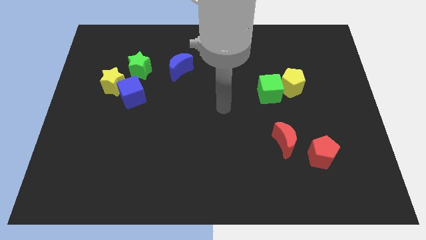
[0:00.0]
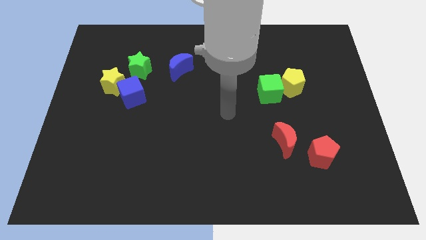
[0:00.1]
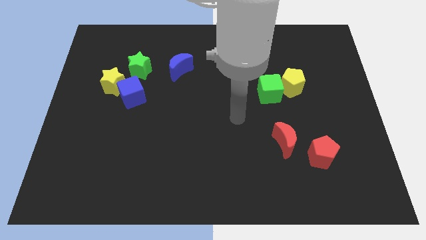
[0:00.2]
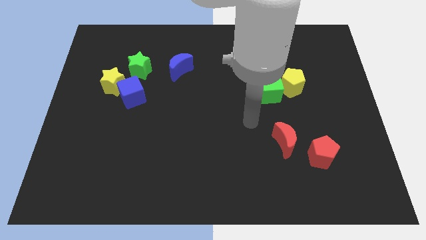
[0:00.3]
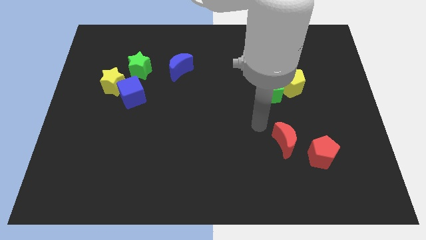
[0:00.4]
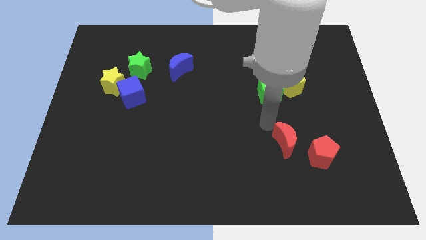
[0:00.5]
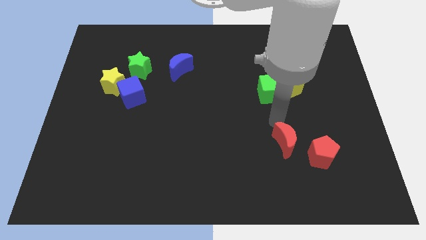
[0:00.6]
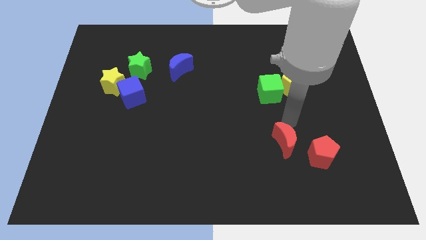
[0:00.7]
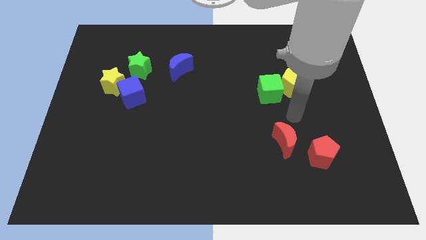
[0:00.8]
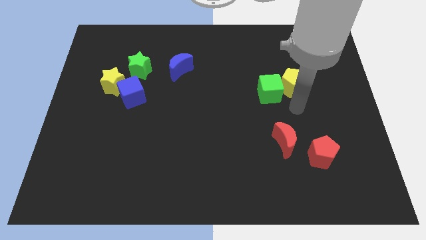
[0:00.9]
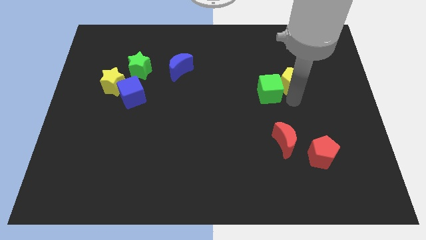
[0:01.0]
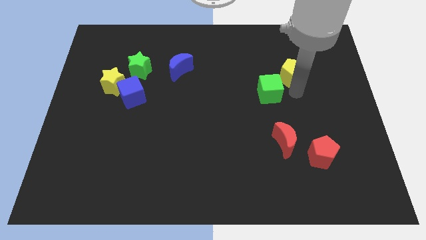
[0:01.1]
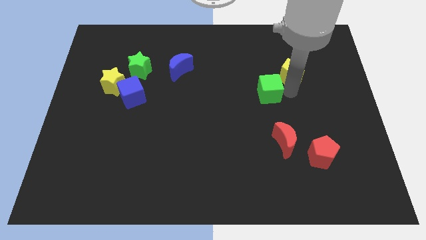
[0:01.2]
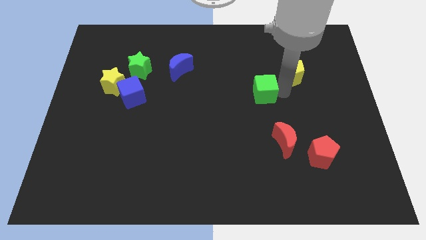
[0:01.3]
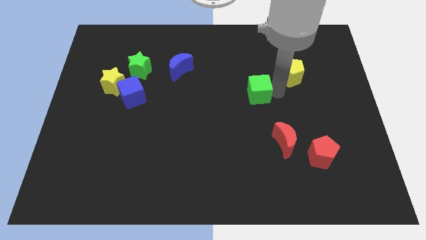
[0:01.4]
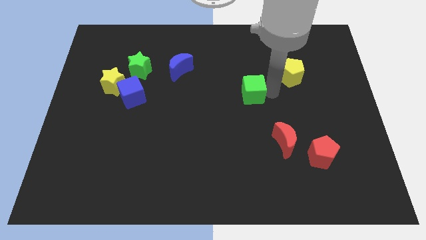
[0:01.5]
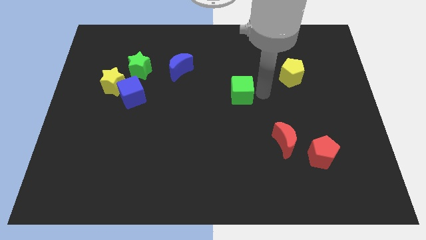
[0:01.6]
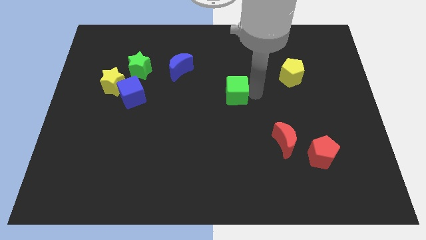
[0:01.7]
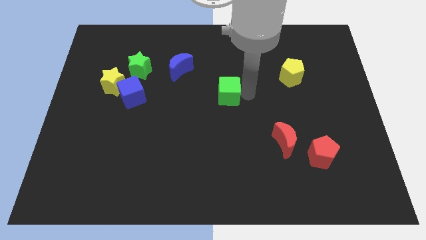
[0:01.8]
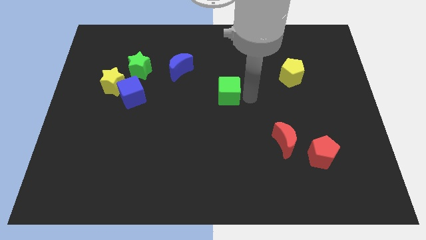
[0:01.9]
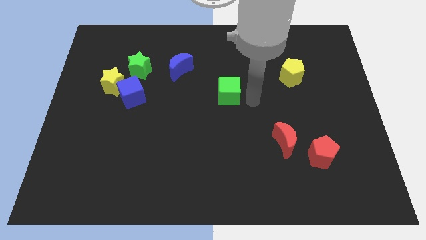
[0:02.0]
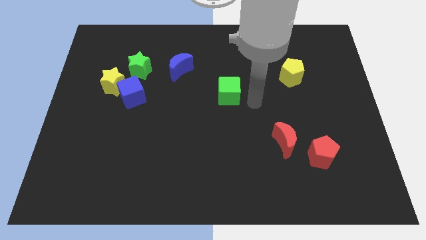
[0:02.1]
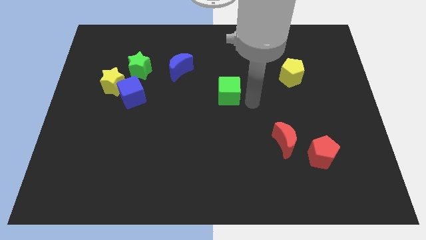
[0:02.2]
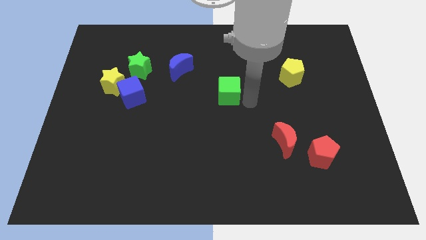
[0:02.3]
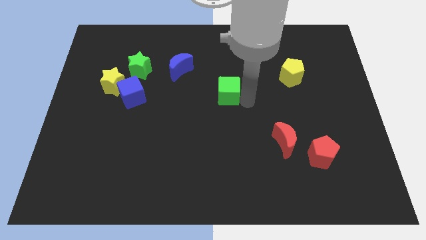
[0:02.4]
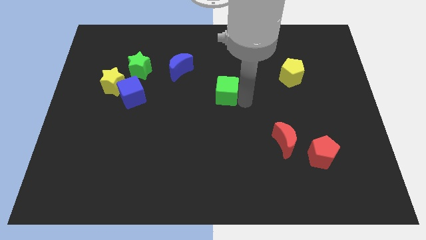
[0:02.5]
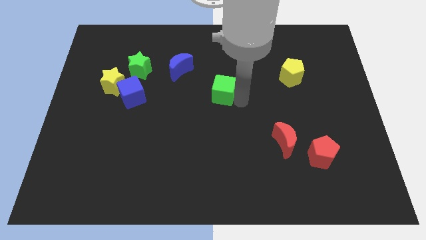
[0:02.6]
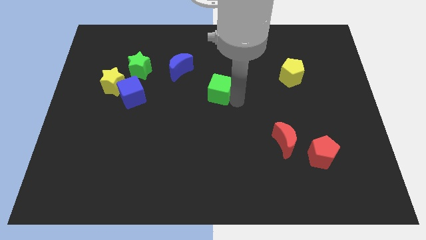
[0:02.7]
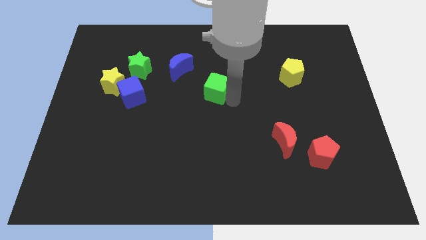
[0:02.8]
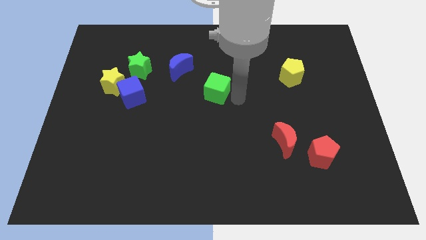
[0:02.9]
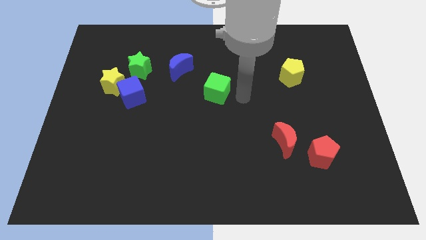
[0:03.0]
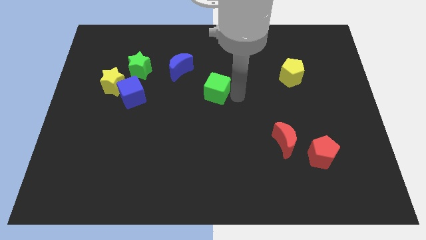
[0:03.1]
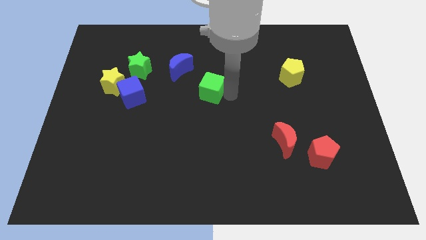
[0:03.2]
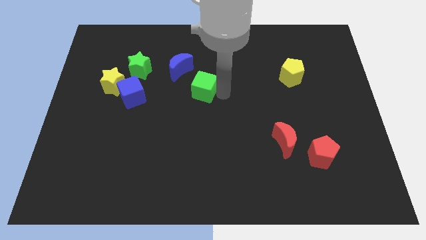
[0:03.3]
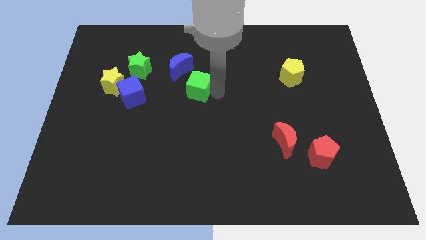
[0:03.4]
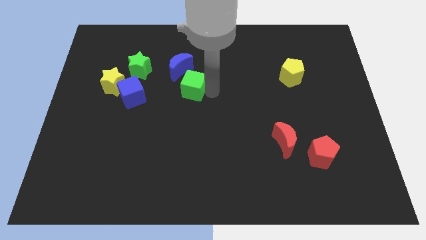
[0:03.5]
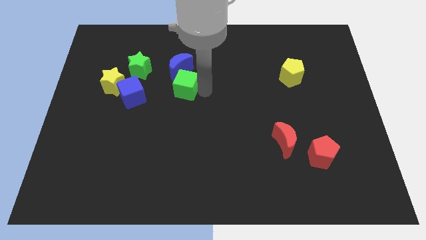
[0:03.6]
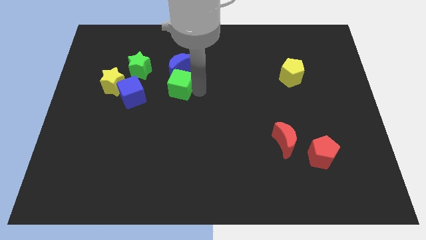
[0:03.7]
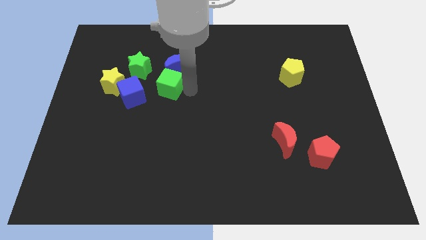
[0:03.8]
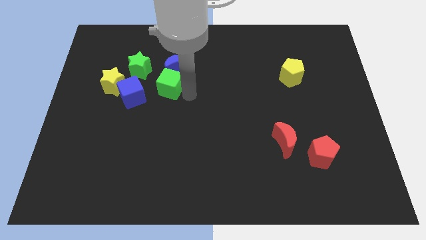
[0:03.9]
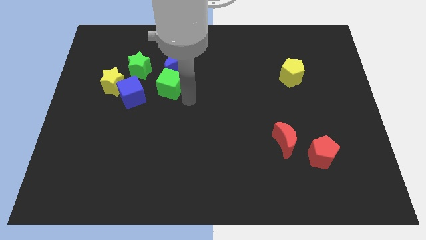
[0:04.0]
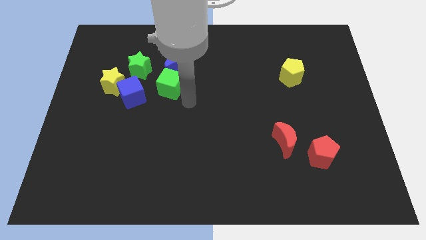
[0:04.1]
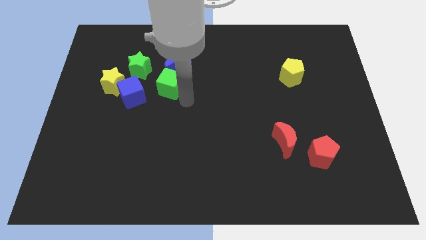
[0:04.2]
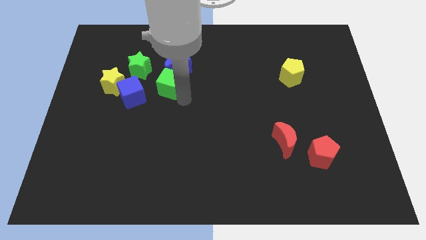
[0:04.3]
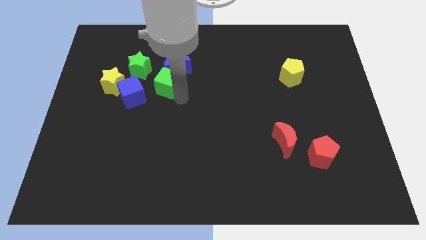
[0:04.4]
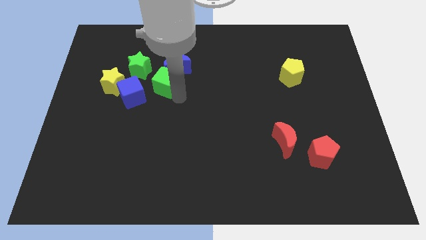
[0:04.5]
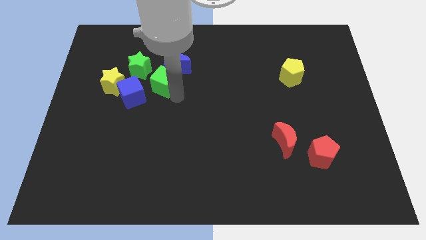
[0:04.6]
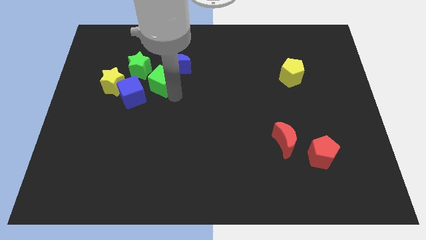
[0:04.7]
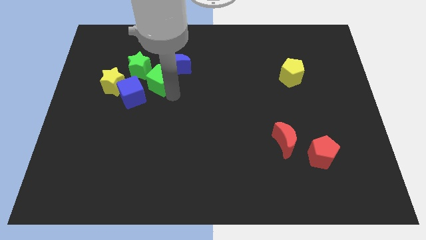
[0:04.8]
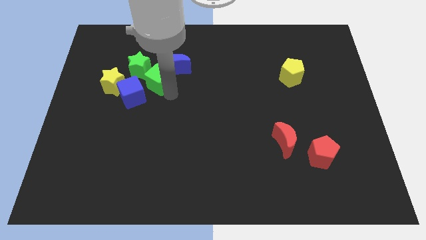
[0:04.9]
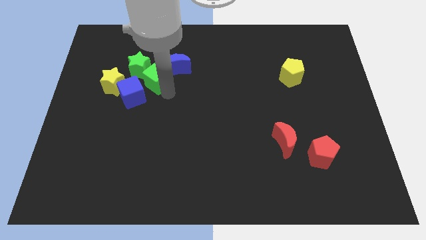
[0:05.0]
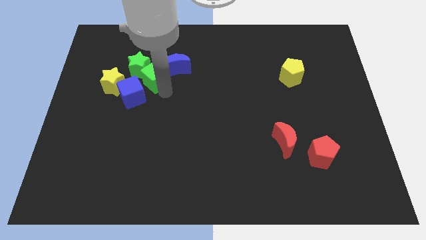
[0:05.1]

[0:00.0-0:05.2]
move the green cube towards the green star

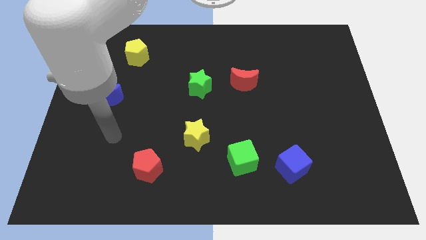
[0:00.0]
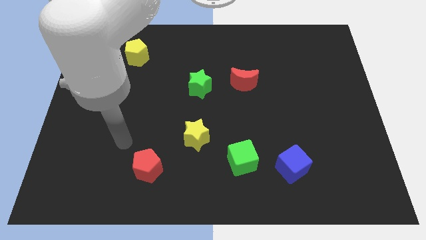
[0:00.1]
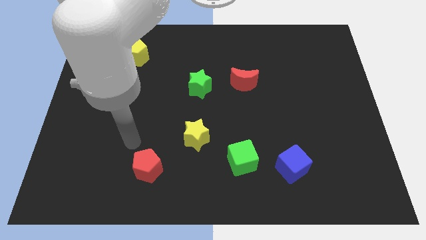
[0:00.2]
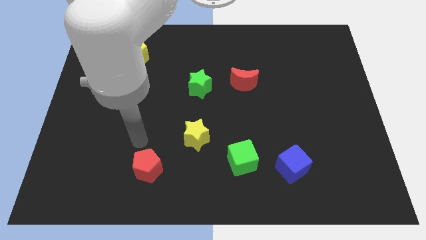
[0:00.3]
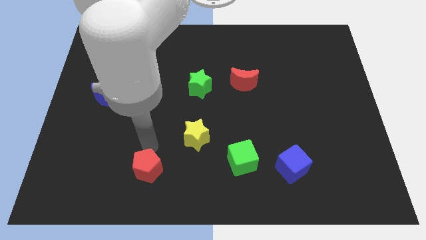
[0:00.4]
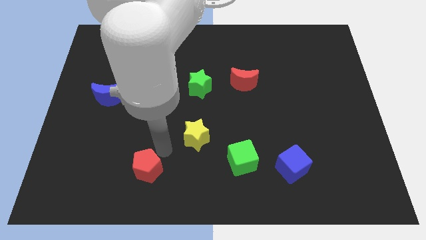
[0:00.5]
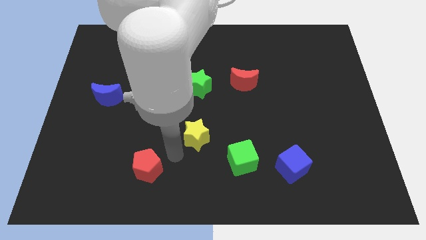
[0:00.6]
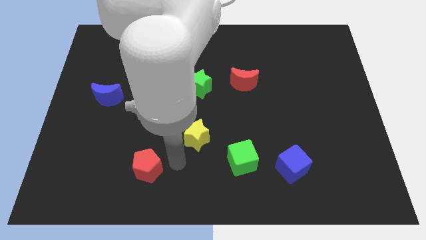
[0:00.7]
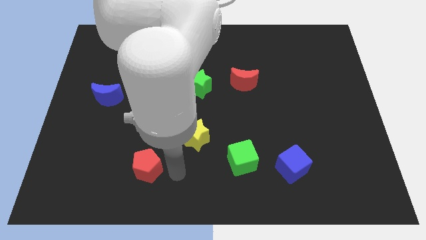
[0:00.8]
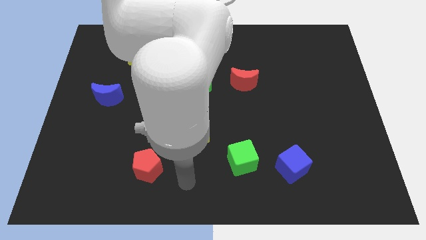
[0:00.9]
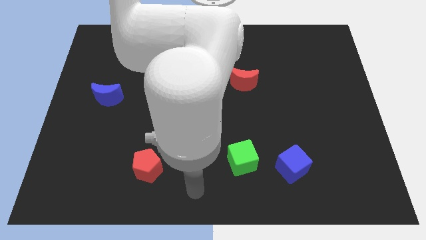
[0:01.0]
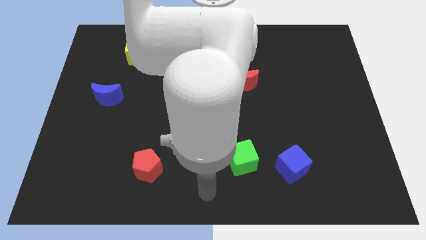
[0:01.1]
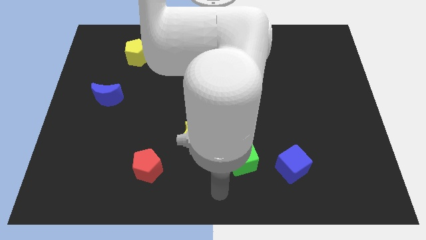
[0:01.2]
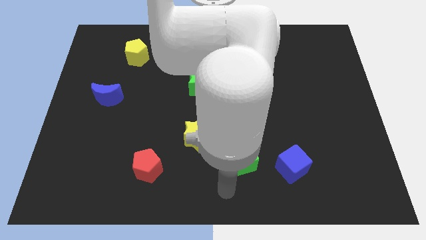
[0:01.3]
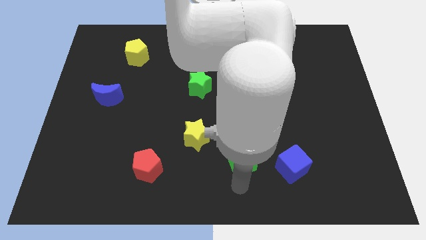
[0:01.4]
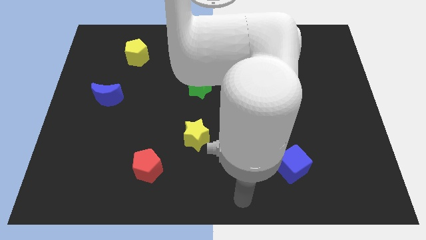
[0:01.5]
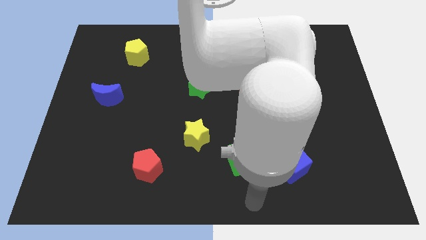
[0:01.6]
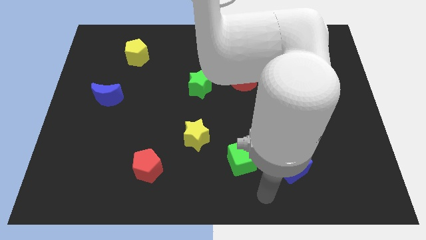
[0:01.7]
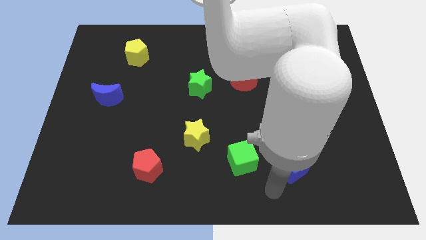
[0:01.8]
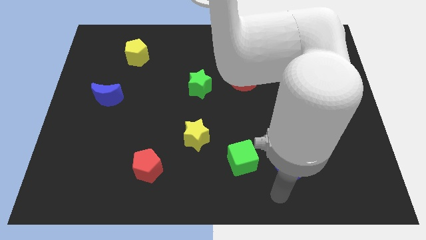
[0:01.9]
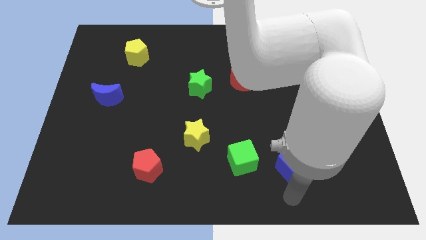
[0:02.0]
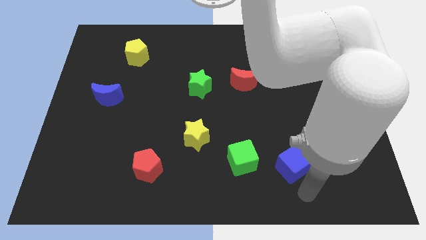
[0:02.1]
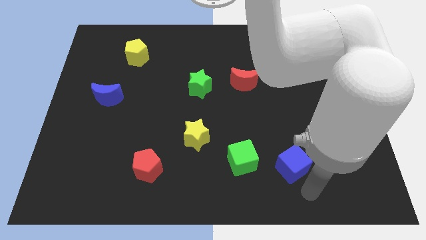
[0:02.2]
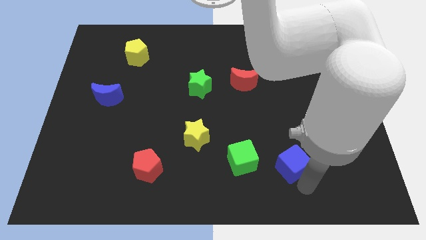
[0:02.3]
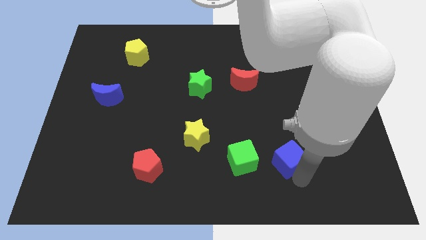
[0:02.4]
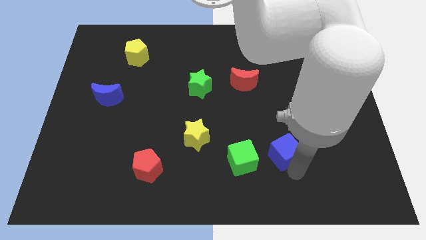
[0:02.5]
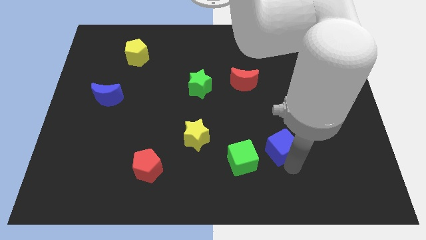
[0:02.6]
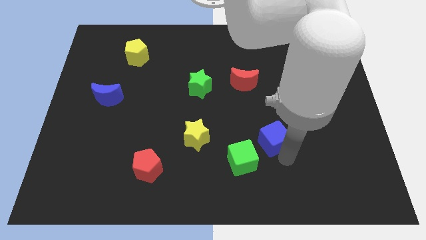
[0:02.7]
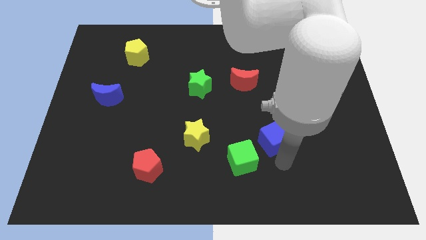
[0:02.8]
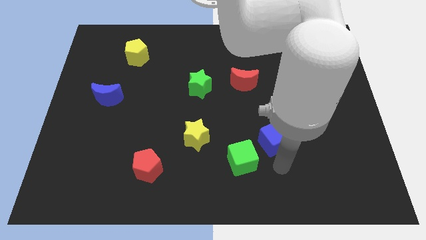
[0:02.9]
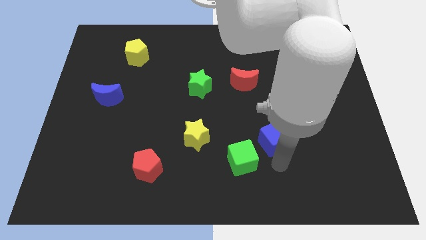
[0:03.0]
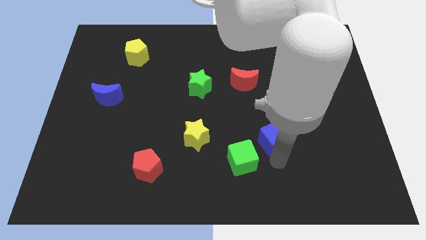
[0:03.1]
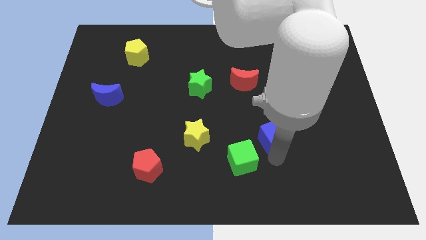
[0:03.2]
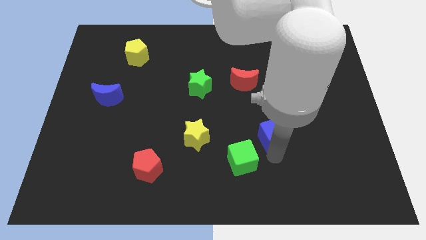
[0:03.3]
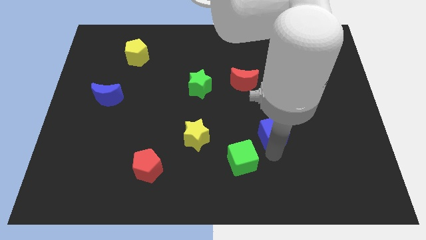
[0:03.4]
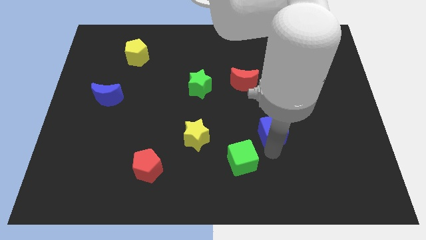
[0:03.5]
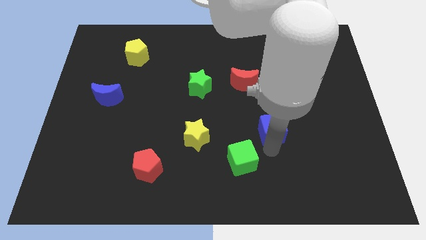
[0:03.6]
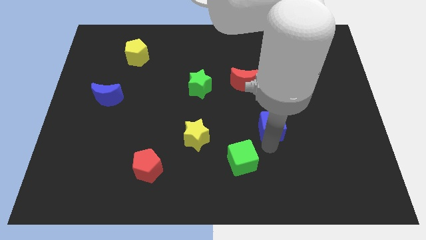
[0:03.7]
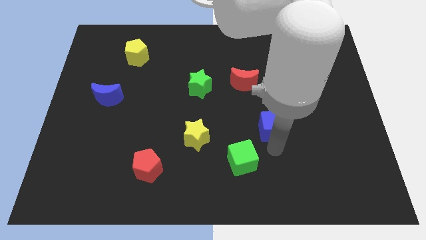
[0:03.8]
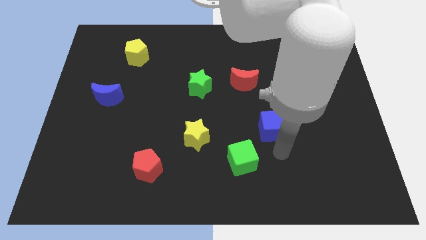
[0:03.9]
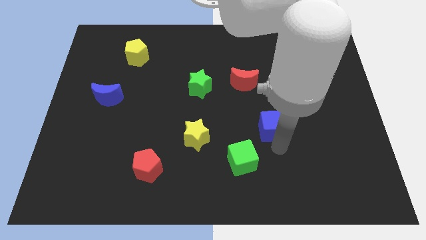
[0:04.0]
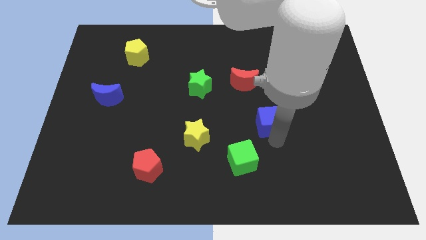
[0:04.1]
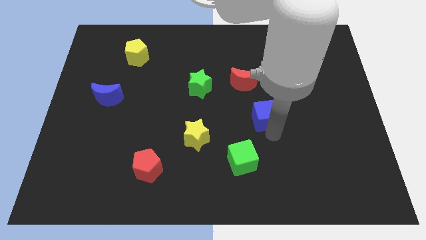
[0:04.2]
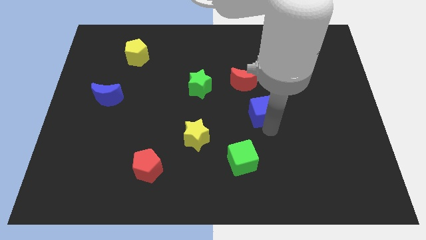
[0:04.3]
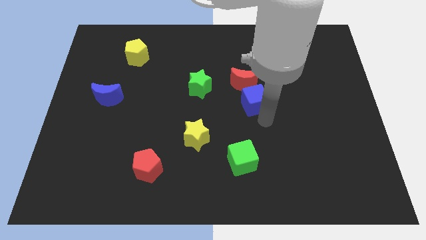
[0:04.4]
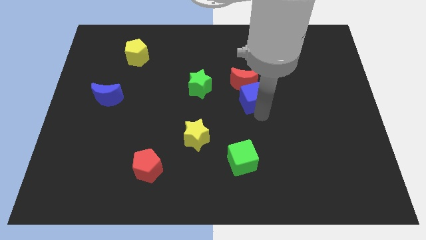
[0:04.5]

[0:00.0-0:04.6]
slide the blue cube towards the red moon
